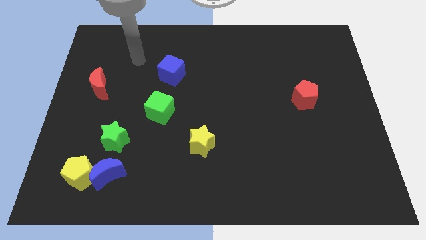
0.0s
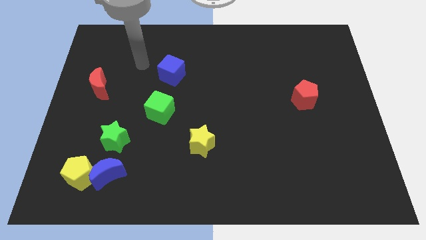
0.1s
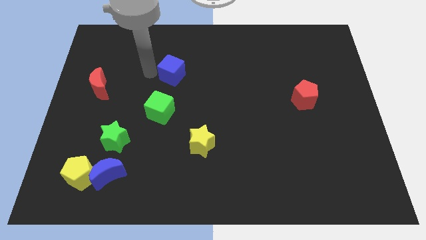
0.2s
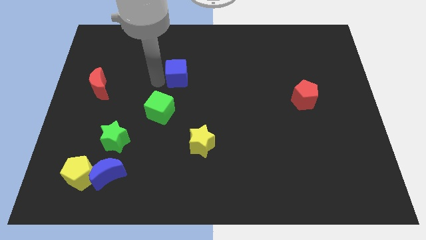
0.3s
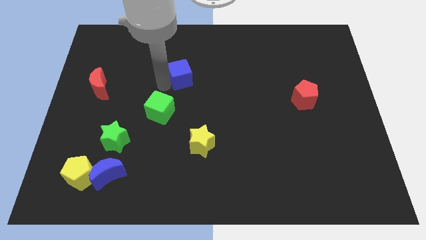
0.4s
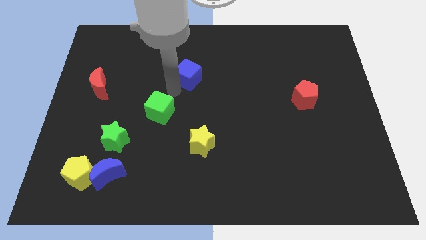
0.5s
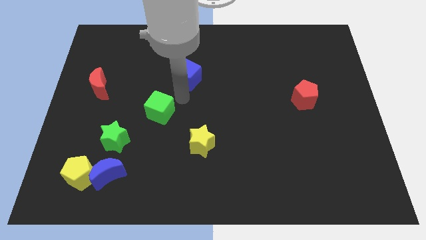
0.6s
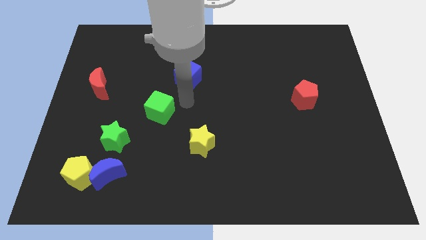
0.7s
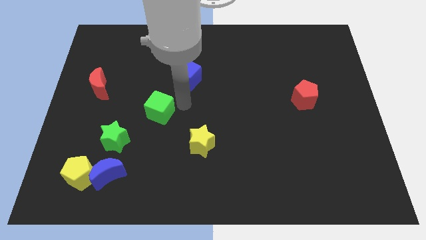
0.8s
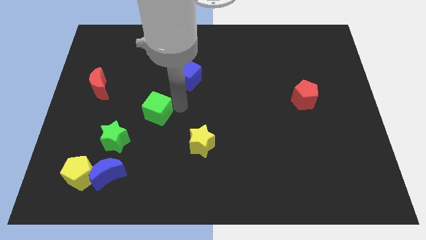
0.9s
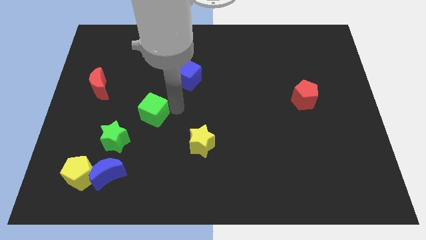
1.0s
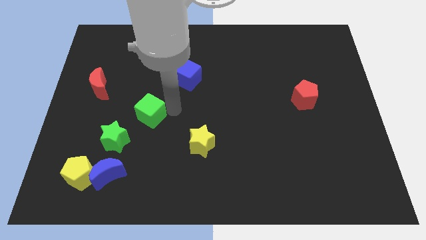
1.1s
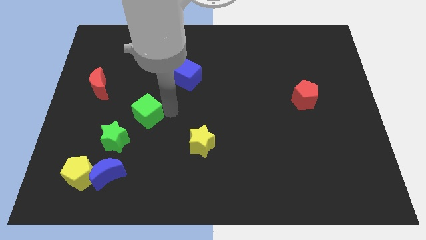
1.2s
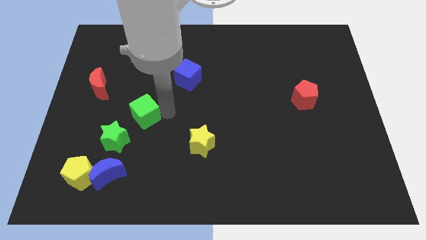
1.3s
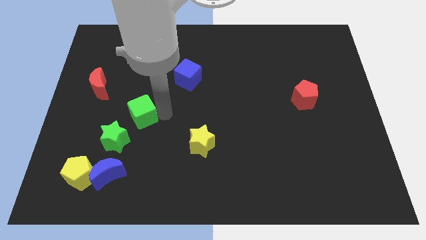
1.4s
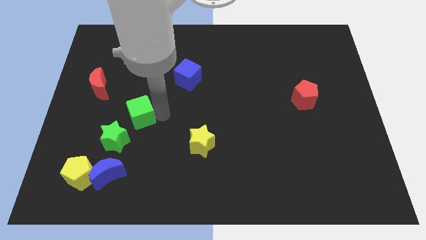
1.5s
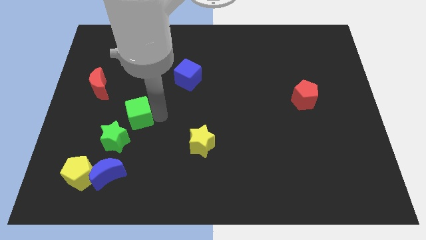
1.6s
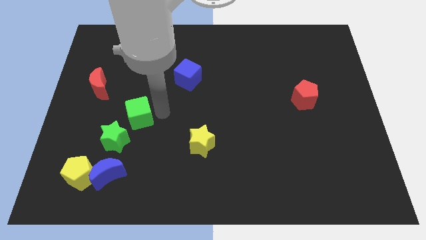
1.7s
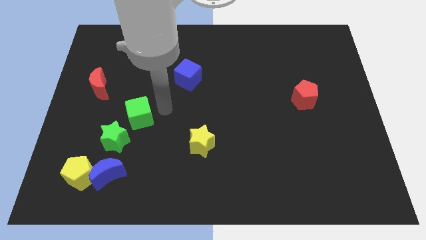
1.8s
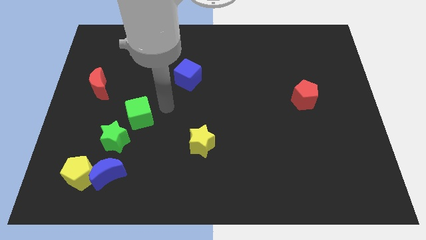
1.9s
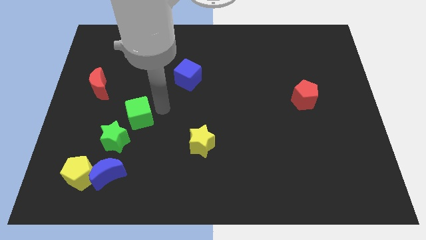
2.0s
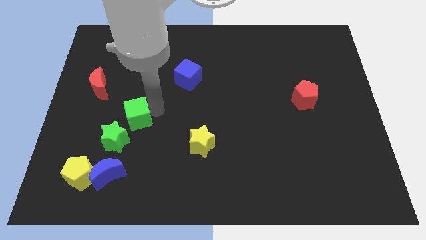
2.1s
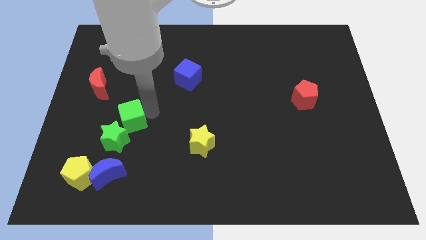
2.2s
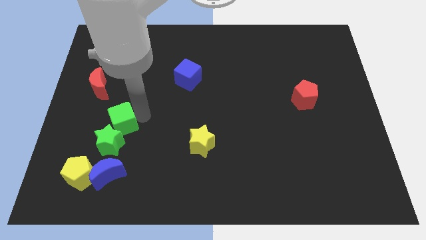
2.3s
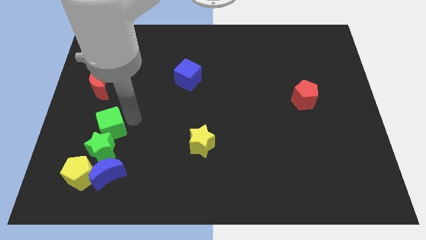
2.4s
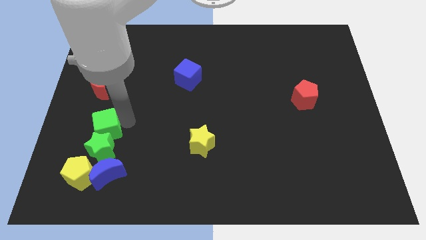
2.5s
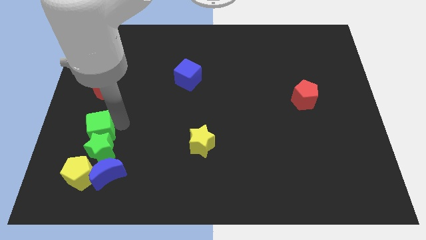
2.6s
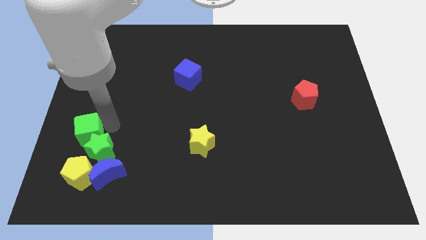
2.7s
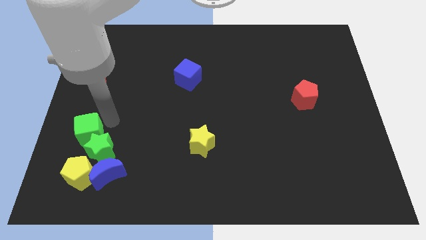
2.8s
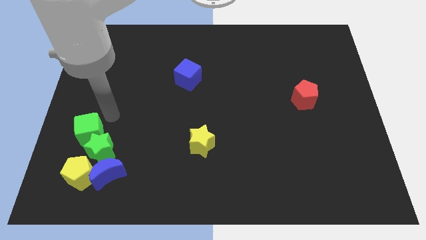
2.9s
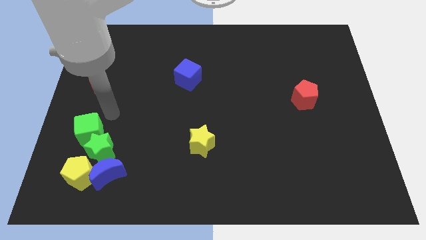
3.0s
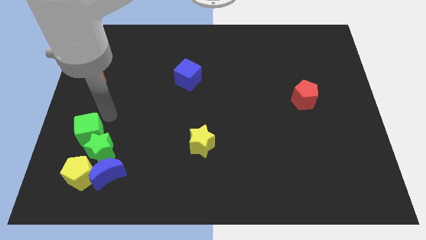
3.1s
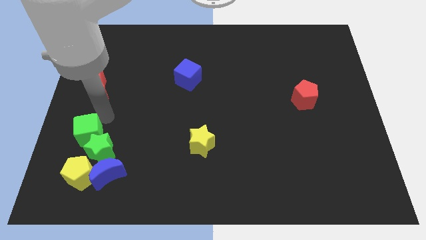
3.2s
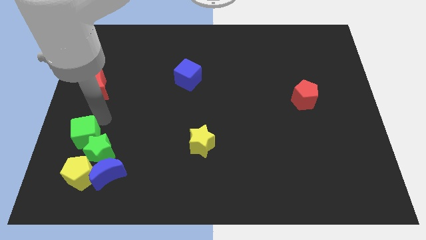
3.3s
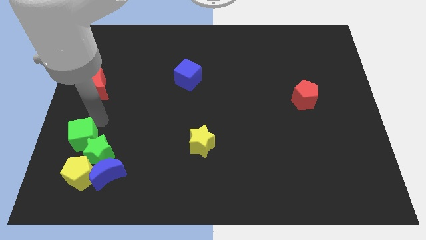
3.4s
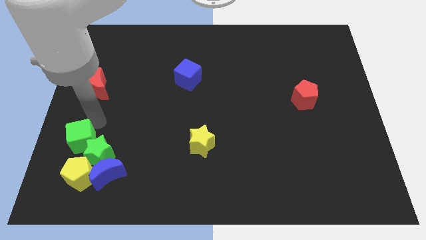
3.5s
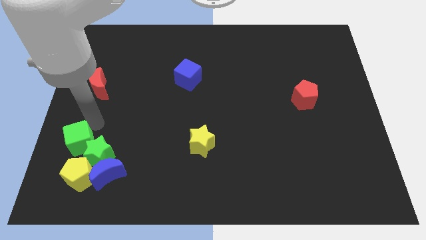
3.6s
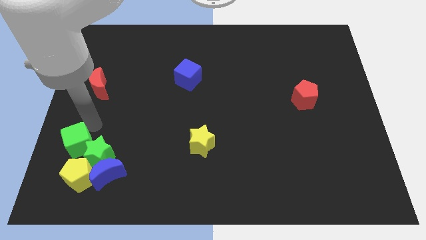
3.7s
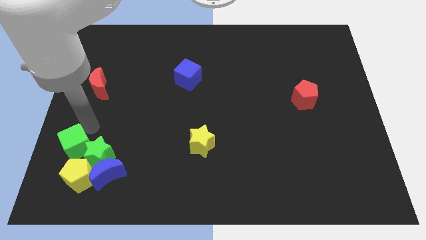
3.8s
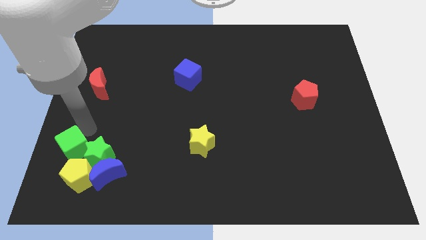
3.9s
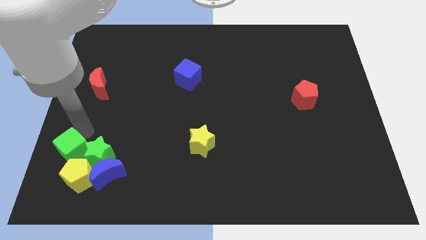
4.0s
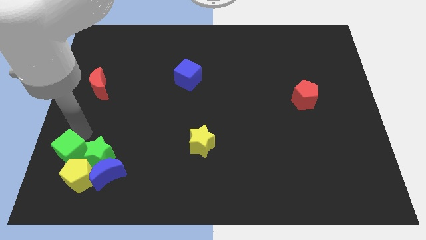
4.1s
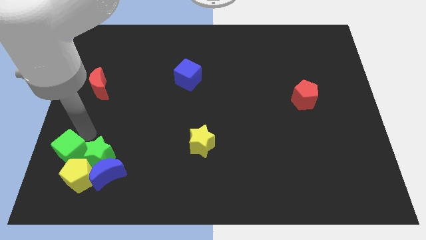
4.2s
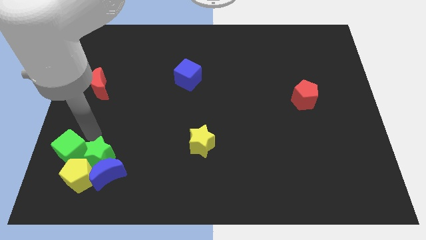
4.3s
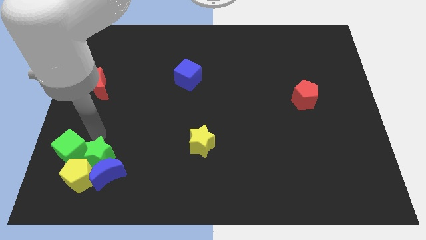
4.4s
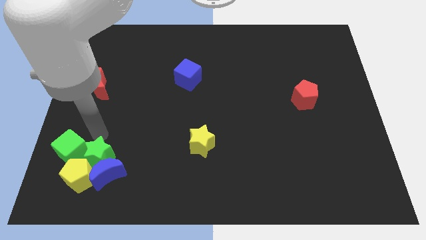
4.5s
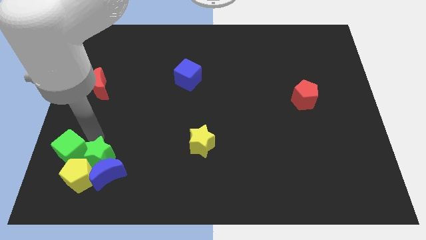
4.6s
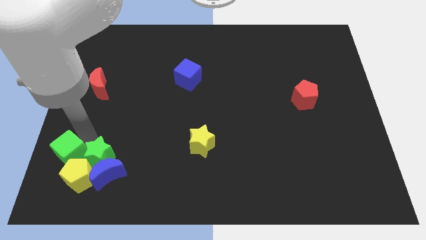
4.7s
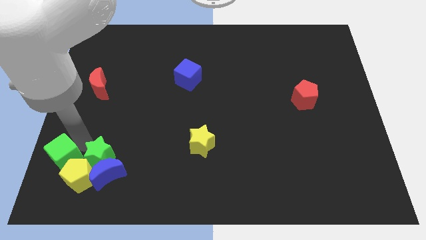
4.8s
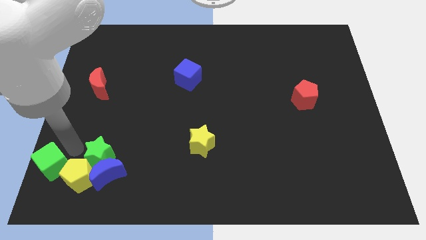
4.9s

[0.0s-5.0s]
push the green cube to the bottom left

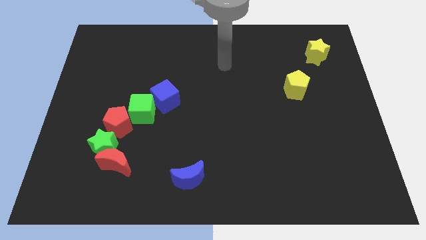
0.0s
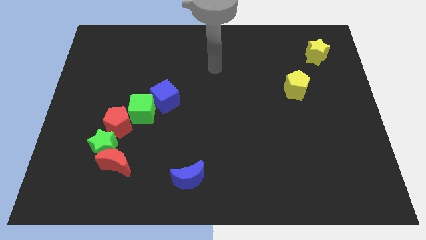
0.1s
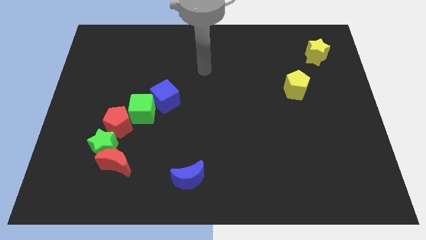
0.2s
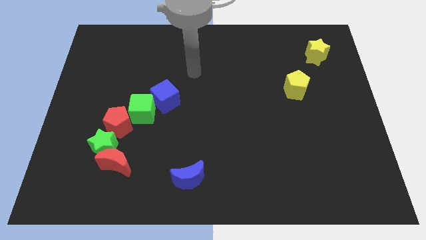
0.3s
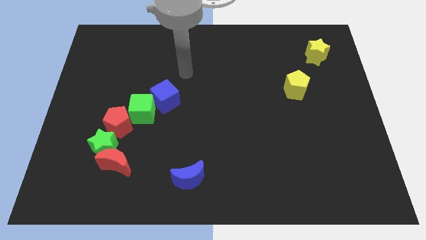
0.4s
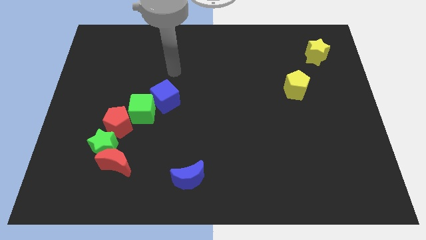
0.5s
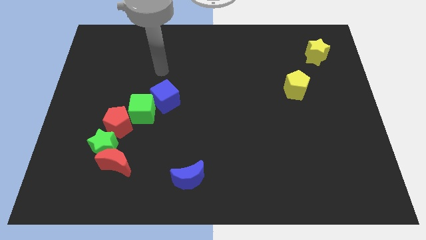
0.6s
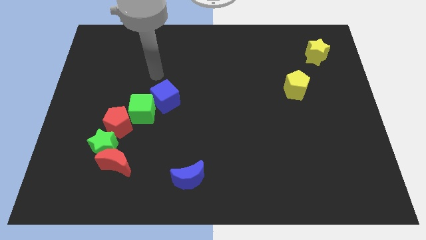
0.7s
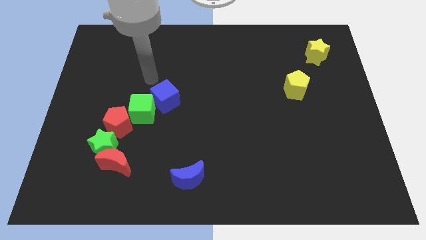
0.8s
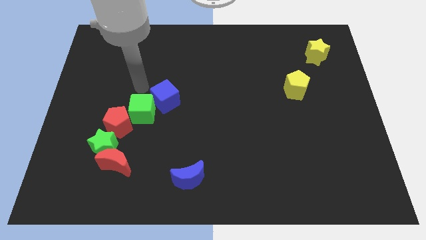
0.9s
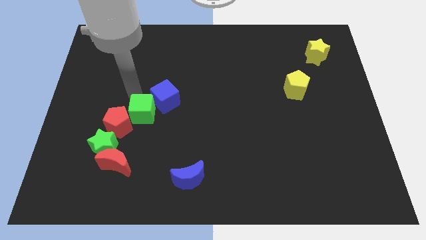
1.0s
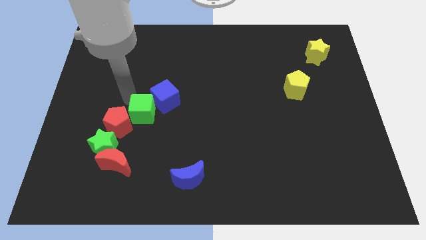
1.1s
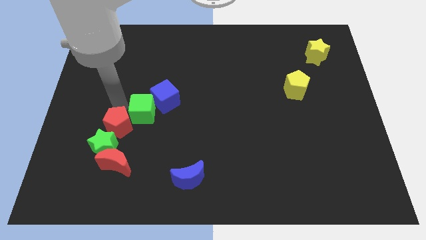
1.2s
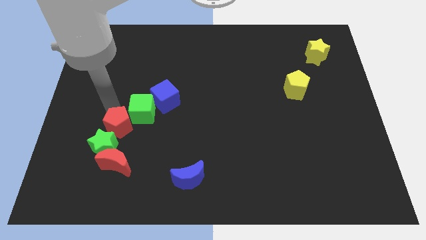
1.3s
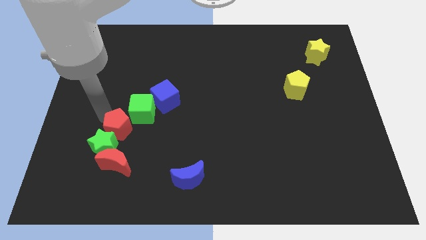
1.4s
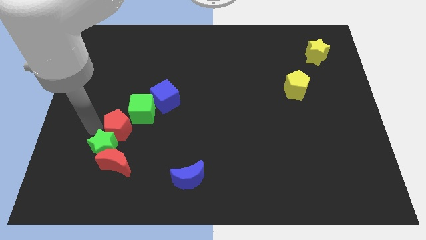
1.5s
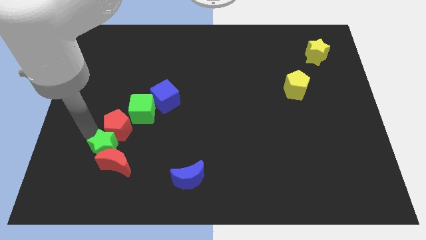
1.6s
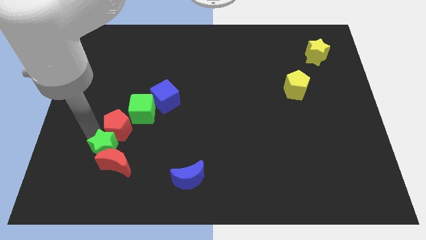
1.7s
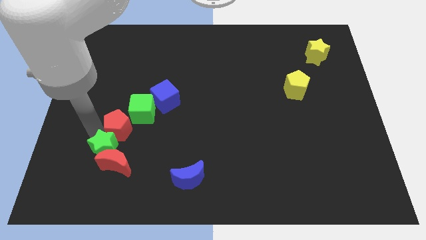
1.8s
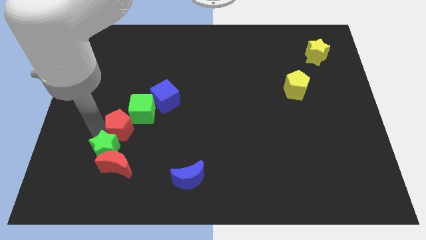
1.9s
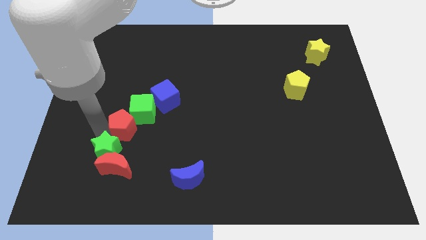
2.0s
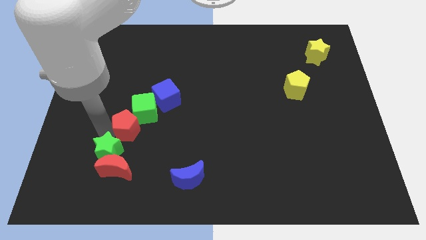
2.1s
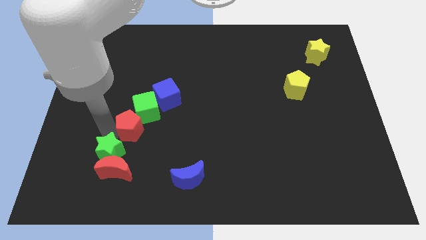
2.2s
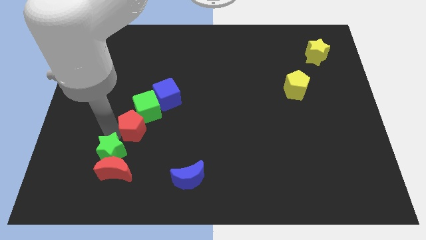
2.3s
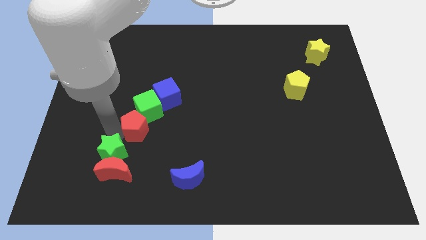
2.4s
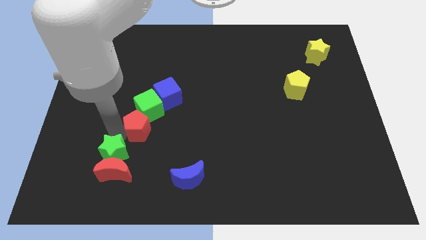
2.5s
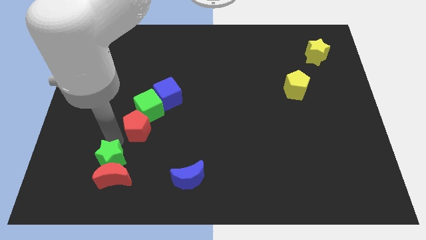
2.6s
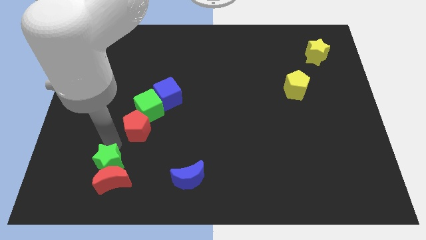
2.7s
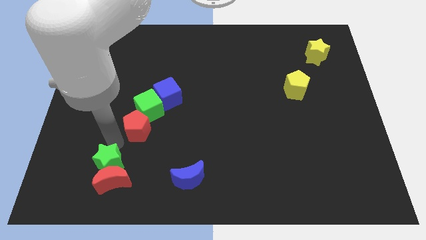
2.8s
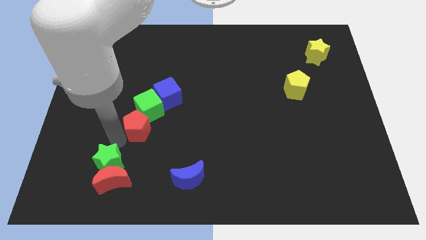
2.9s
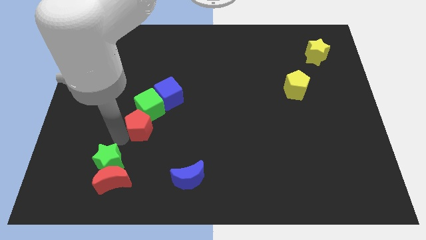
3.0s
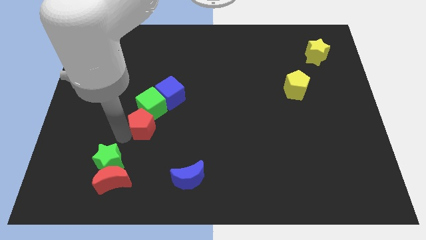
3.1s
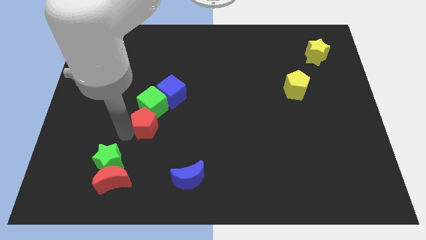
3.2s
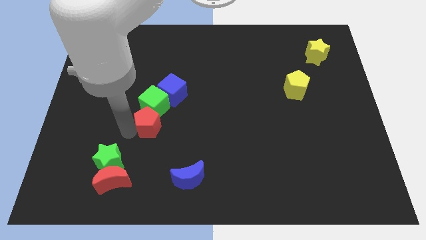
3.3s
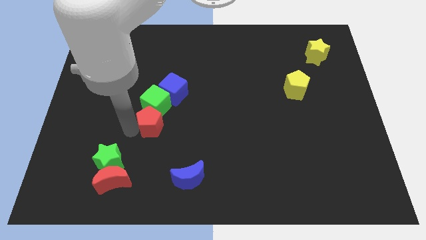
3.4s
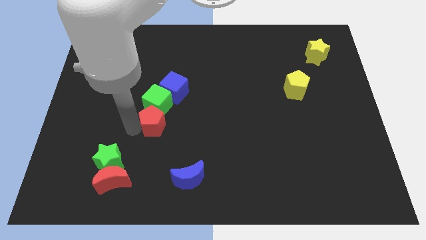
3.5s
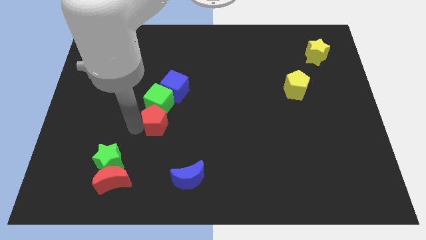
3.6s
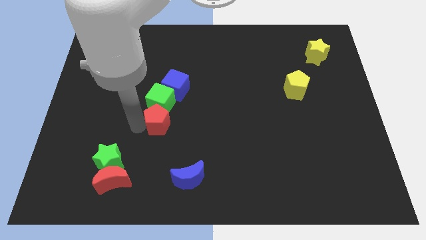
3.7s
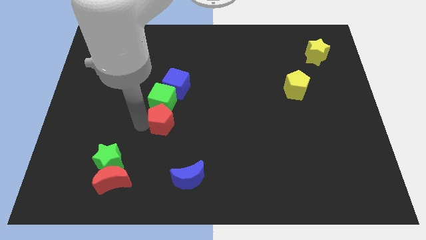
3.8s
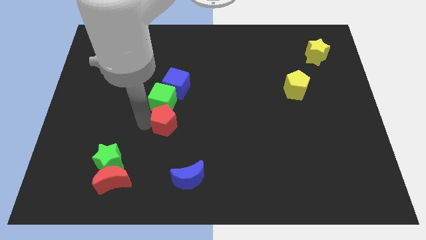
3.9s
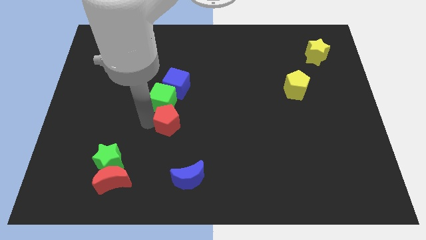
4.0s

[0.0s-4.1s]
push the red pentagon to the middle of the board
